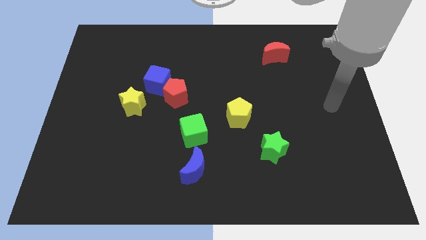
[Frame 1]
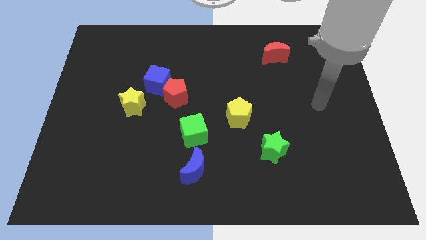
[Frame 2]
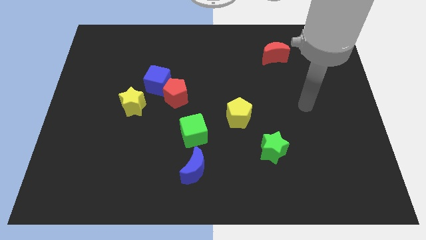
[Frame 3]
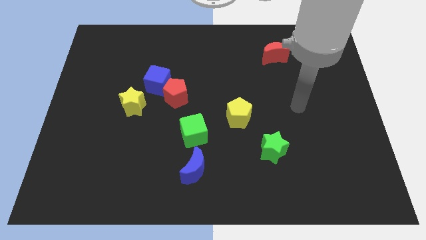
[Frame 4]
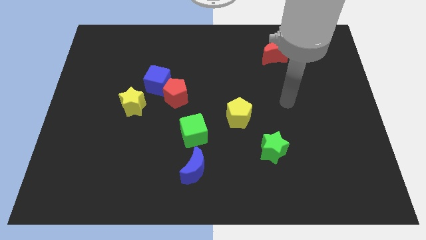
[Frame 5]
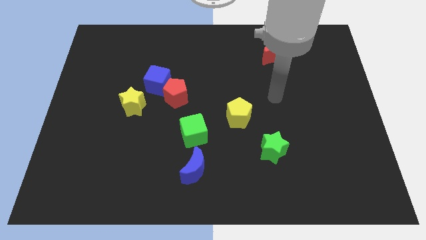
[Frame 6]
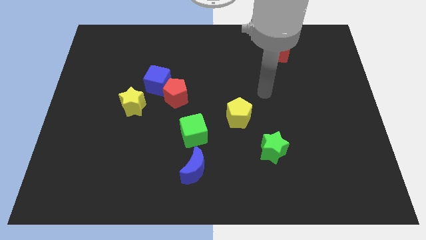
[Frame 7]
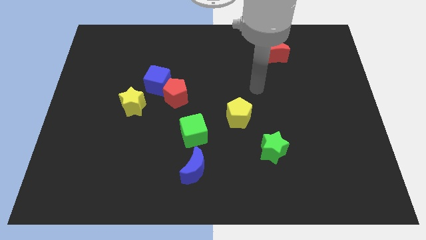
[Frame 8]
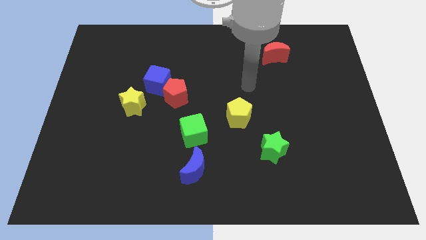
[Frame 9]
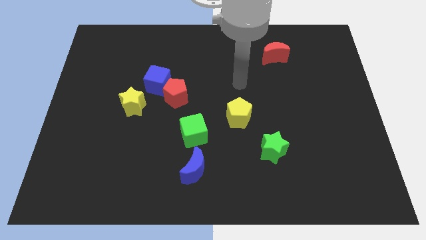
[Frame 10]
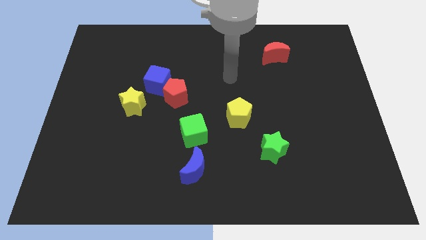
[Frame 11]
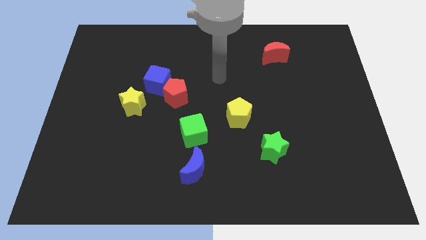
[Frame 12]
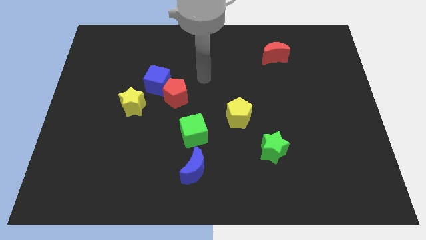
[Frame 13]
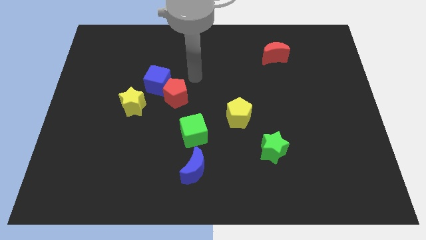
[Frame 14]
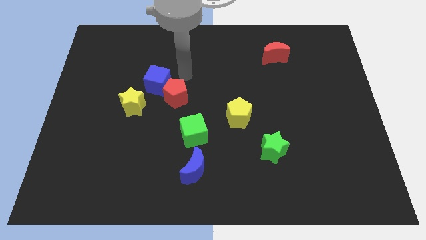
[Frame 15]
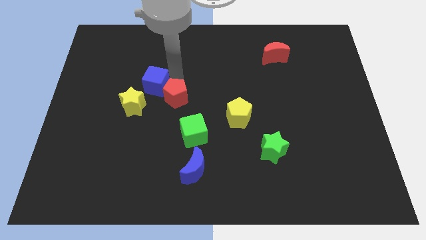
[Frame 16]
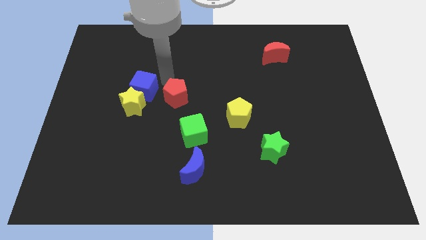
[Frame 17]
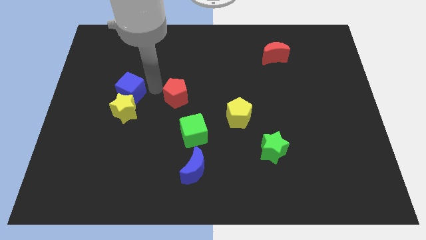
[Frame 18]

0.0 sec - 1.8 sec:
separate the red pentagon from the blue cube

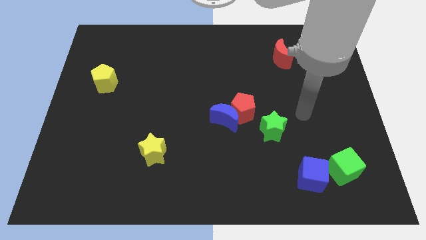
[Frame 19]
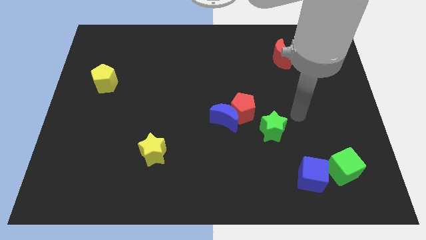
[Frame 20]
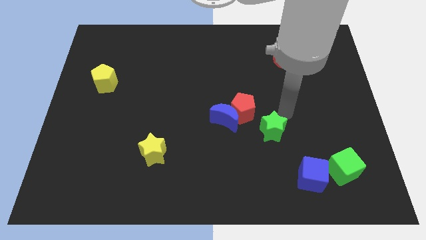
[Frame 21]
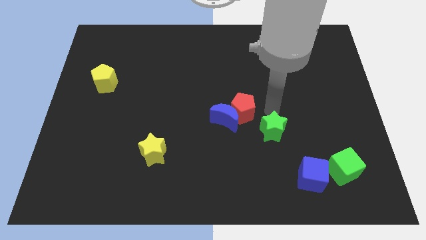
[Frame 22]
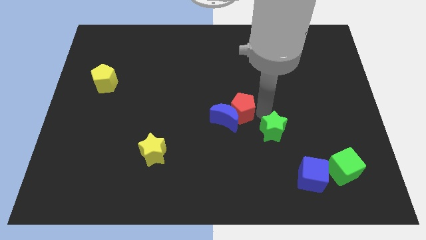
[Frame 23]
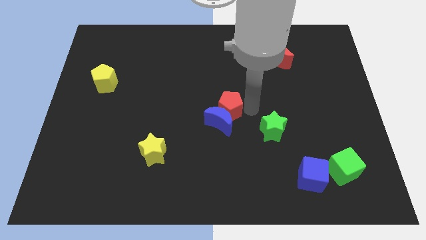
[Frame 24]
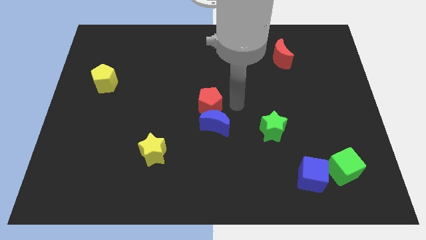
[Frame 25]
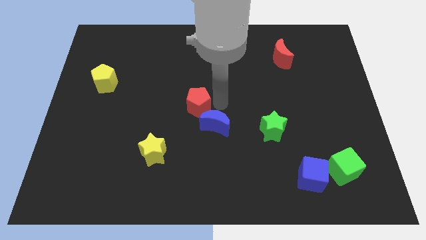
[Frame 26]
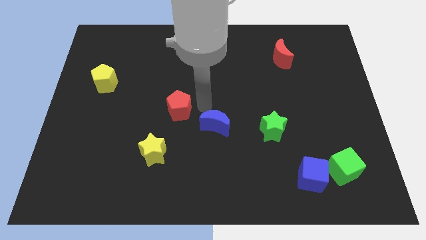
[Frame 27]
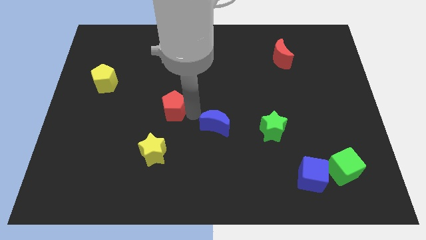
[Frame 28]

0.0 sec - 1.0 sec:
move the blue moon away from the red pentagon

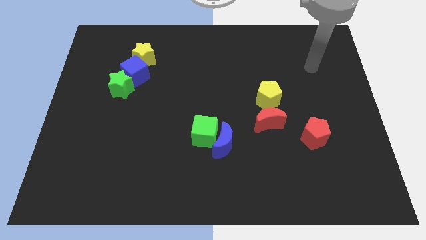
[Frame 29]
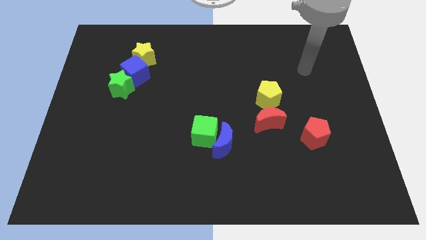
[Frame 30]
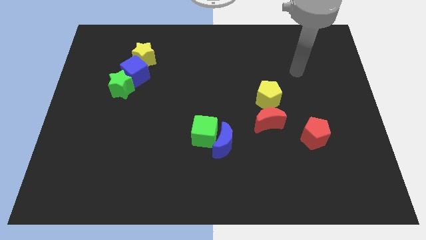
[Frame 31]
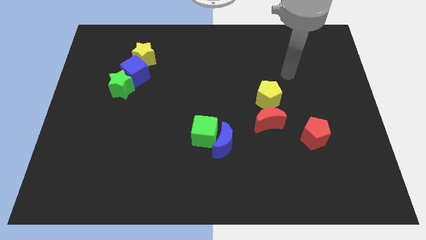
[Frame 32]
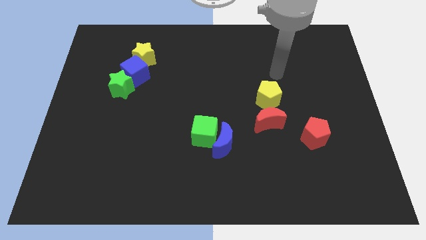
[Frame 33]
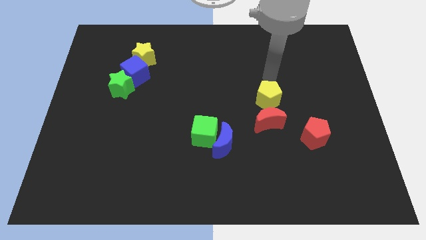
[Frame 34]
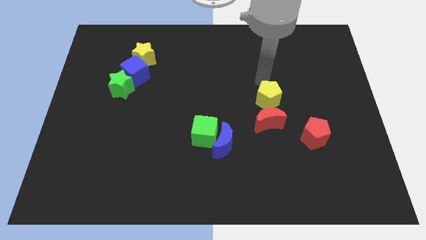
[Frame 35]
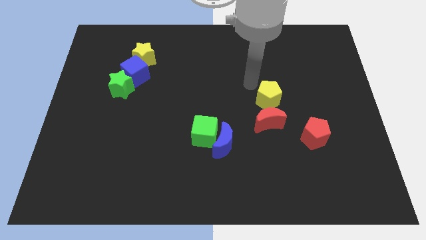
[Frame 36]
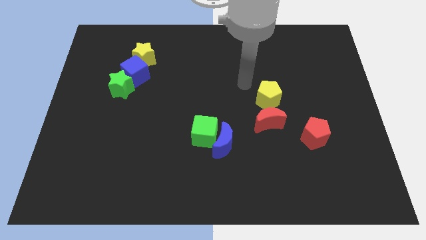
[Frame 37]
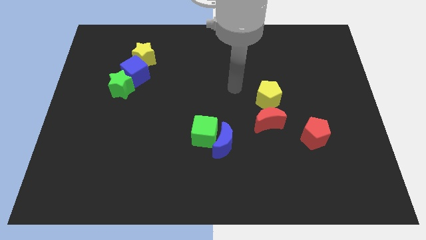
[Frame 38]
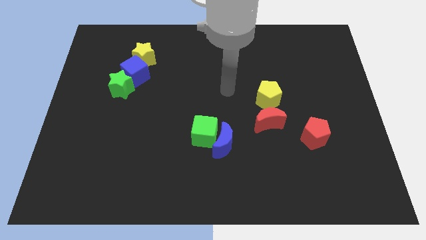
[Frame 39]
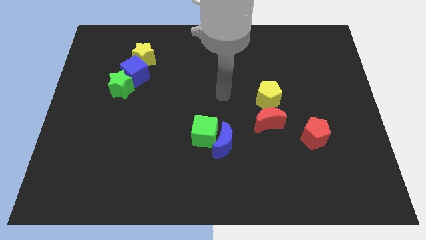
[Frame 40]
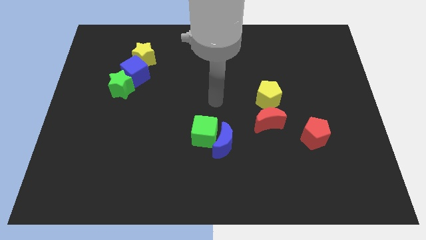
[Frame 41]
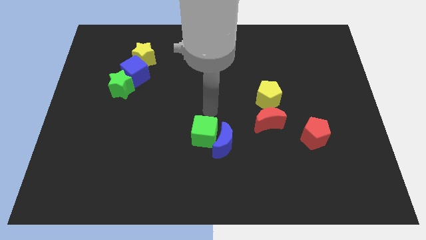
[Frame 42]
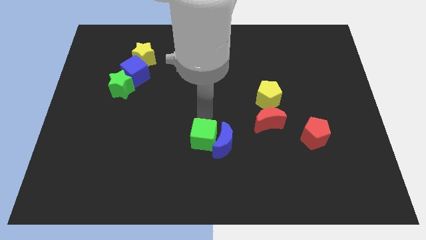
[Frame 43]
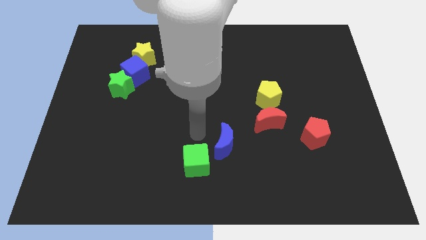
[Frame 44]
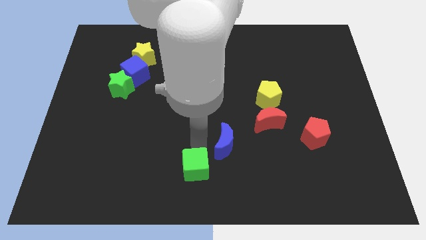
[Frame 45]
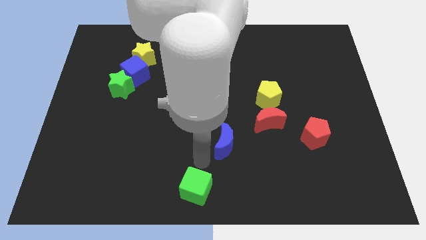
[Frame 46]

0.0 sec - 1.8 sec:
separate the blue moon from the green cube

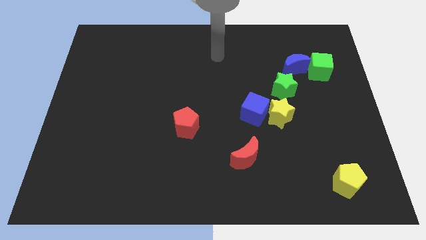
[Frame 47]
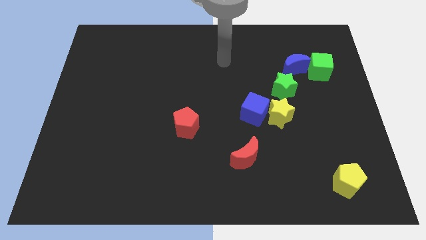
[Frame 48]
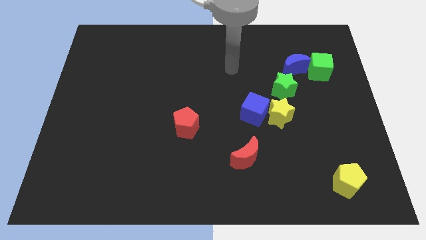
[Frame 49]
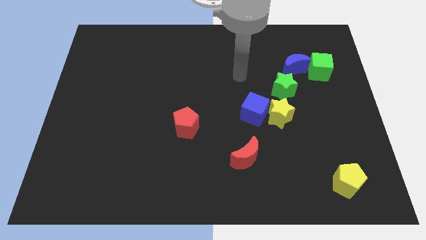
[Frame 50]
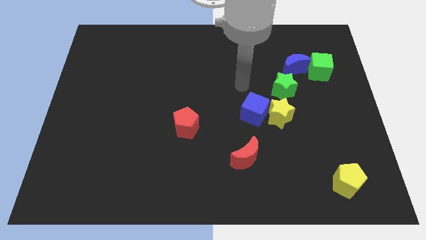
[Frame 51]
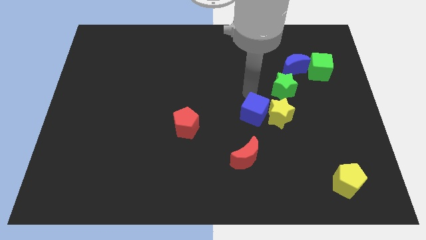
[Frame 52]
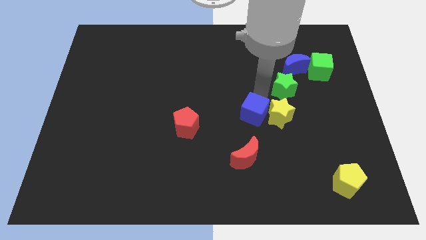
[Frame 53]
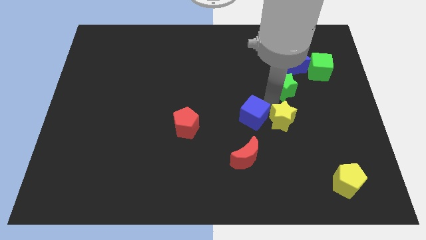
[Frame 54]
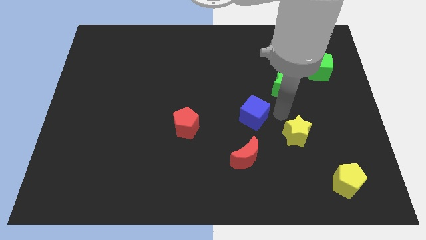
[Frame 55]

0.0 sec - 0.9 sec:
separate the blue cube from the yellow star

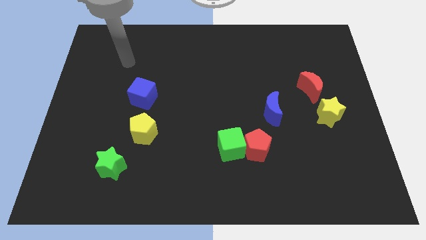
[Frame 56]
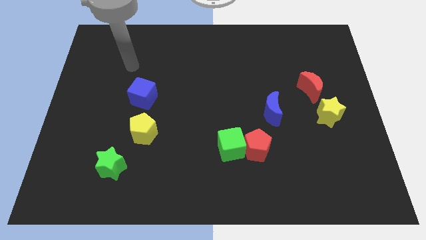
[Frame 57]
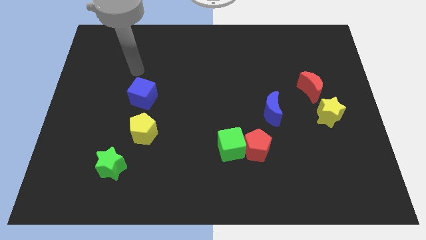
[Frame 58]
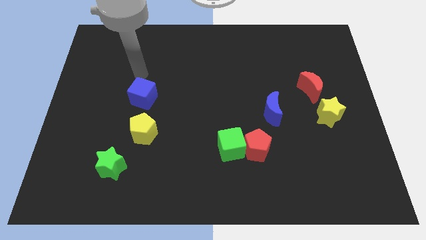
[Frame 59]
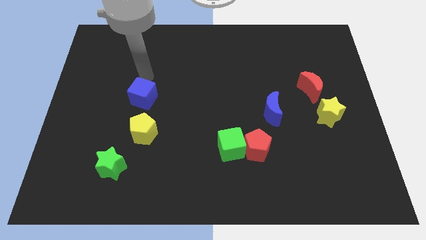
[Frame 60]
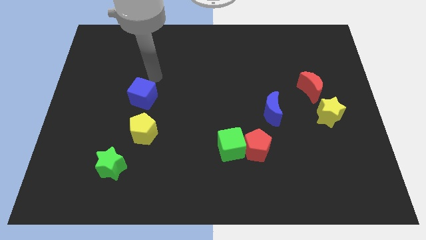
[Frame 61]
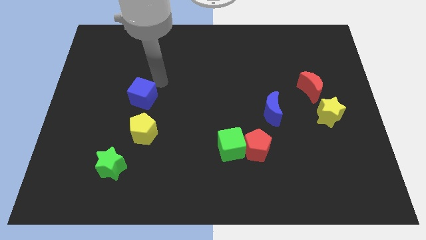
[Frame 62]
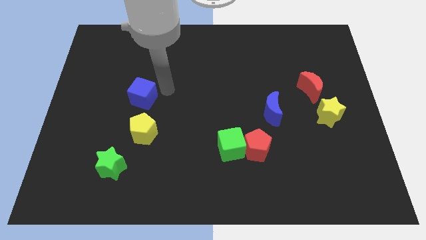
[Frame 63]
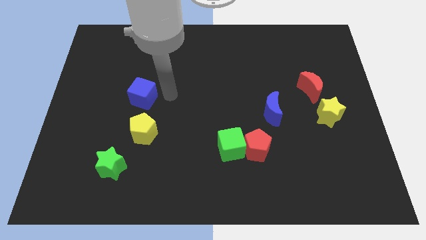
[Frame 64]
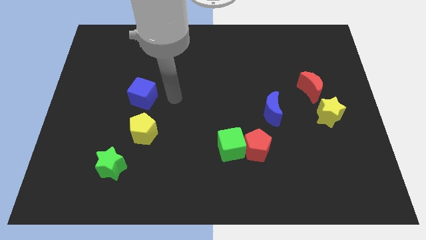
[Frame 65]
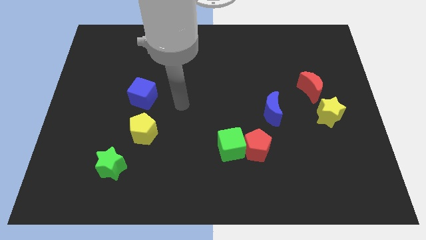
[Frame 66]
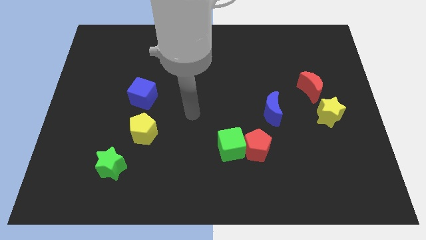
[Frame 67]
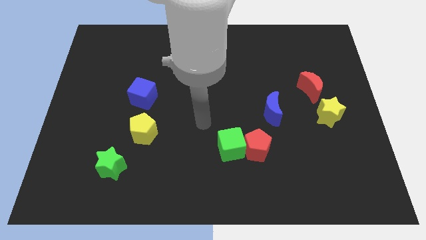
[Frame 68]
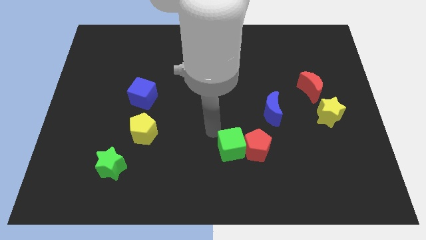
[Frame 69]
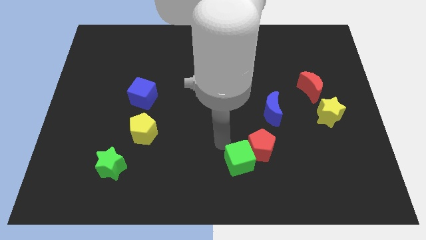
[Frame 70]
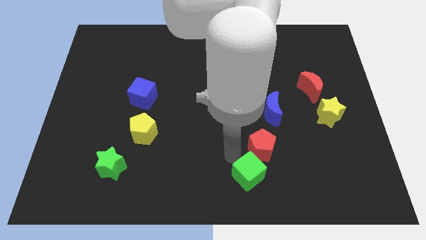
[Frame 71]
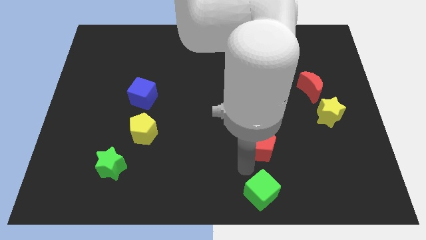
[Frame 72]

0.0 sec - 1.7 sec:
pull the red pentagon apart from the green cube

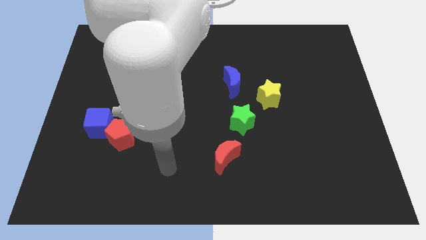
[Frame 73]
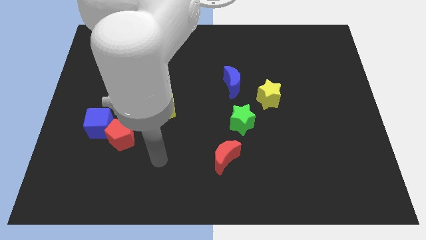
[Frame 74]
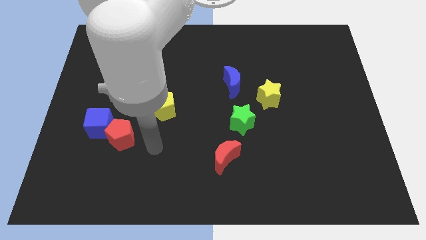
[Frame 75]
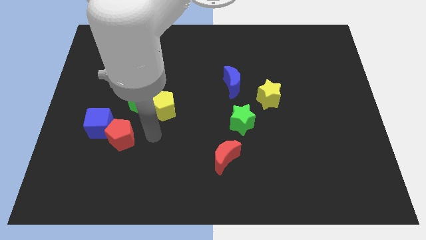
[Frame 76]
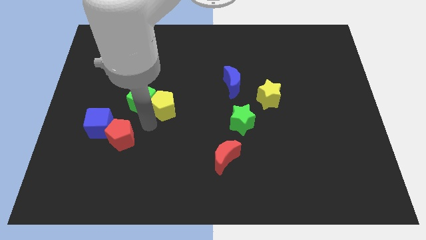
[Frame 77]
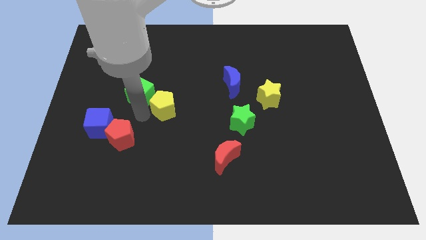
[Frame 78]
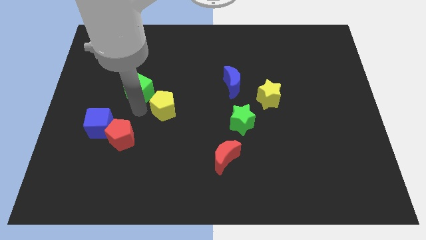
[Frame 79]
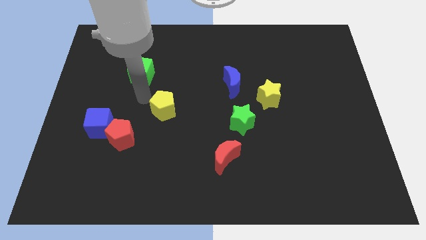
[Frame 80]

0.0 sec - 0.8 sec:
move the yellow pentagon away from the green cube

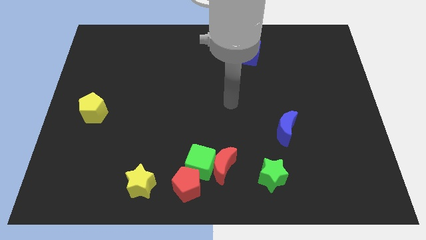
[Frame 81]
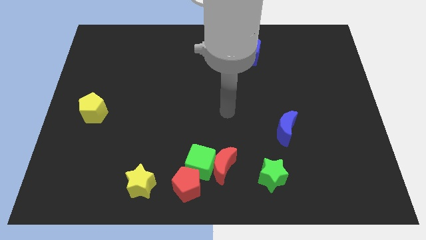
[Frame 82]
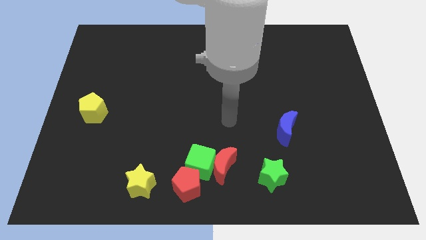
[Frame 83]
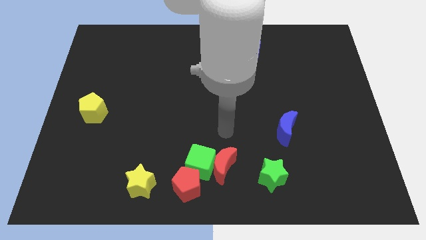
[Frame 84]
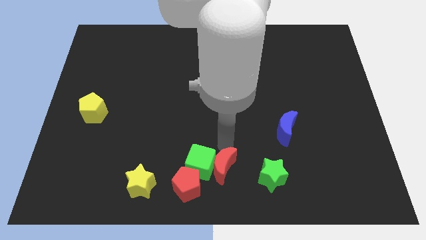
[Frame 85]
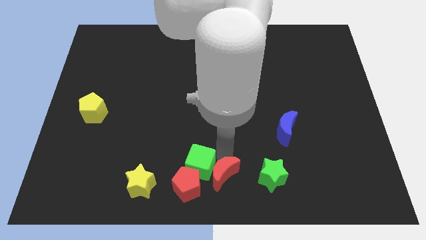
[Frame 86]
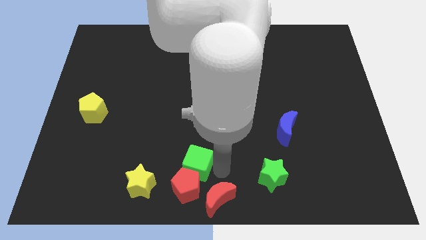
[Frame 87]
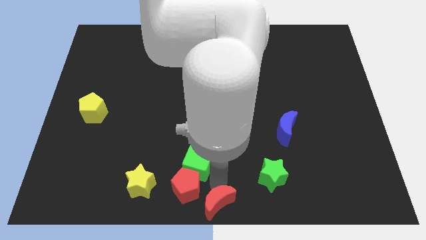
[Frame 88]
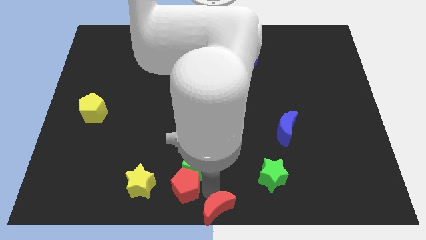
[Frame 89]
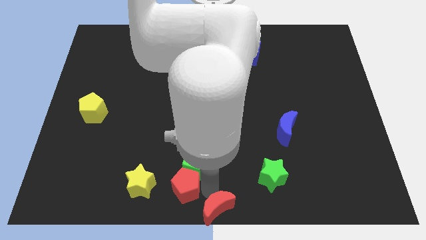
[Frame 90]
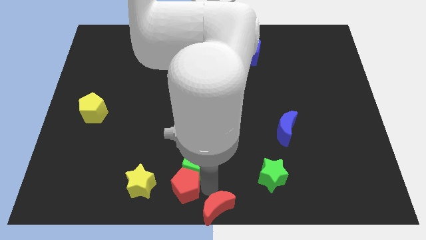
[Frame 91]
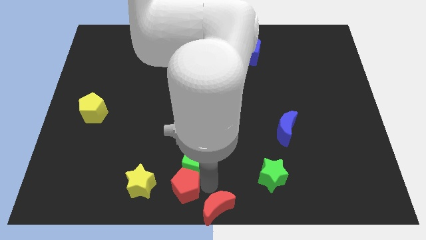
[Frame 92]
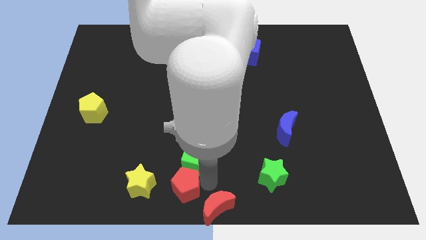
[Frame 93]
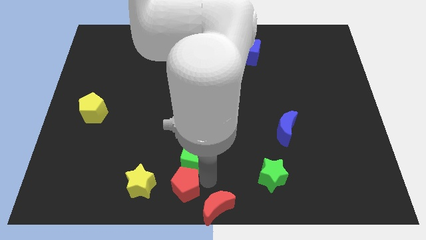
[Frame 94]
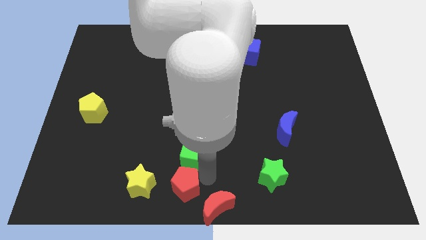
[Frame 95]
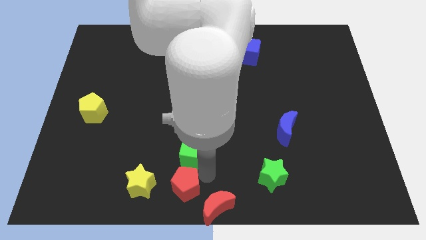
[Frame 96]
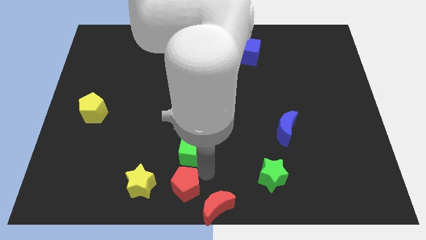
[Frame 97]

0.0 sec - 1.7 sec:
separate the green cube from the red moon and red pentagon
